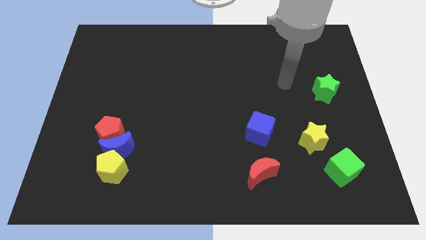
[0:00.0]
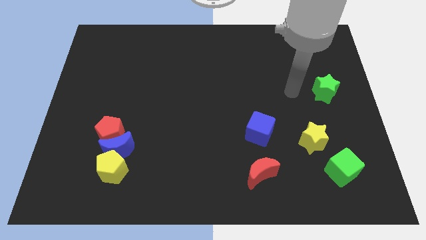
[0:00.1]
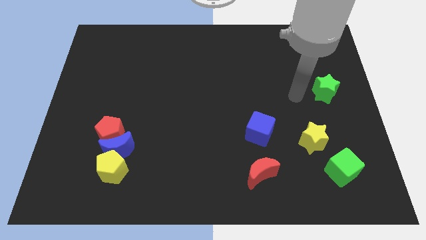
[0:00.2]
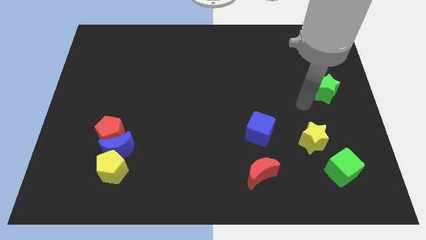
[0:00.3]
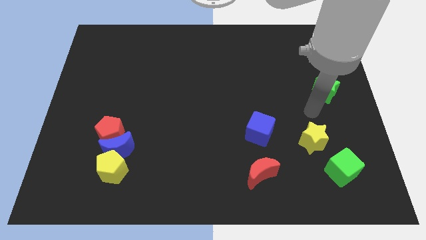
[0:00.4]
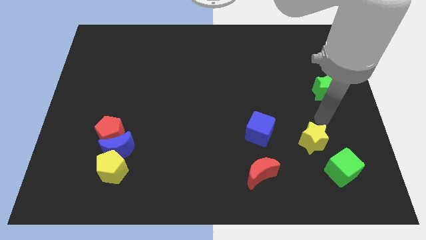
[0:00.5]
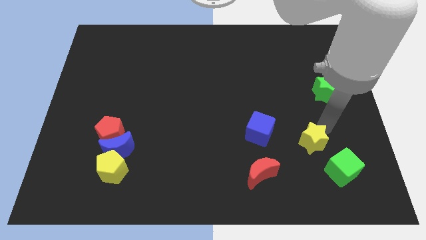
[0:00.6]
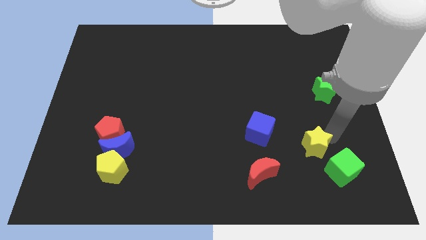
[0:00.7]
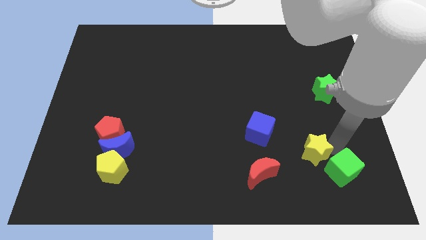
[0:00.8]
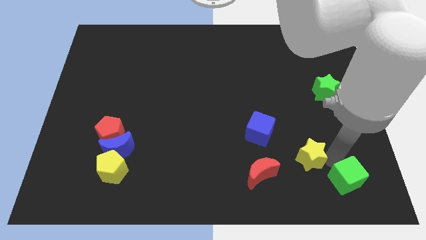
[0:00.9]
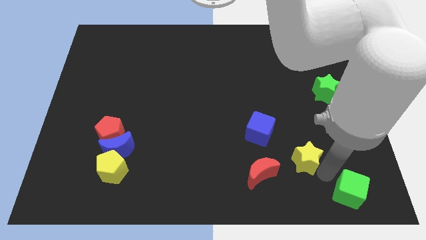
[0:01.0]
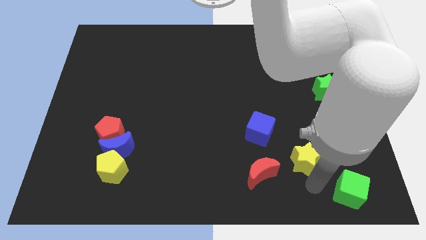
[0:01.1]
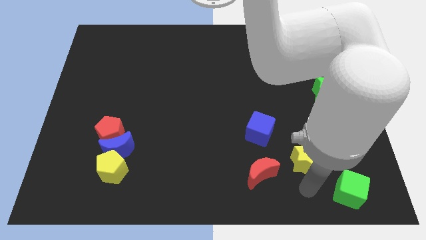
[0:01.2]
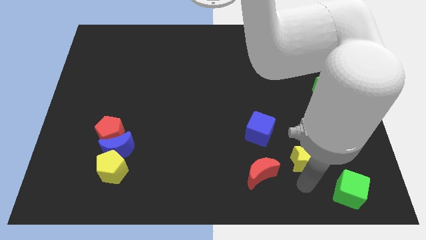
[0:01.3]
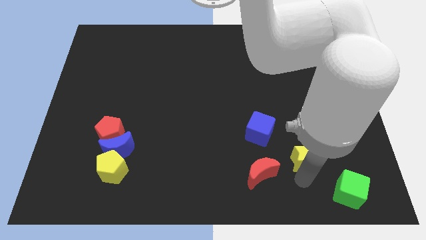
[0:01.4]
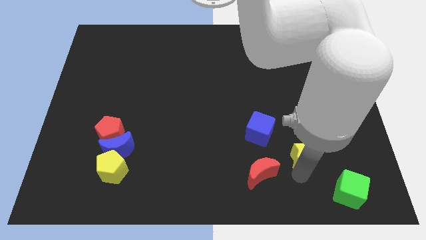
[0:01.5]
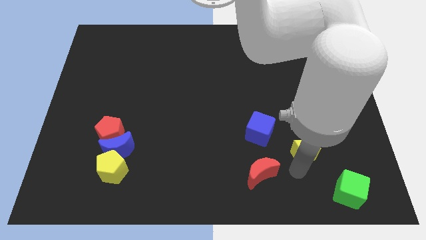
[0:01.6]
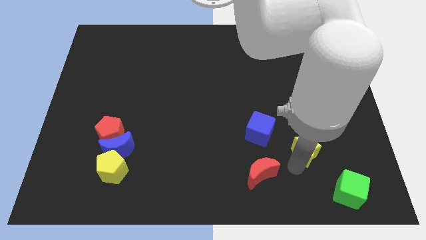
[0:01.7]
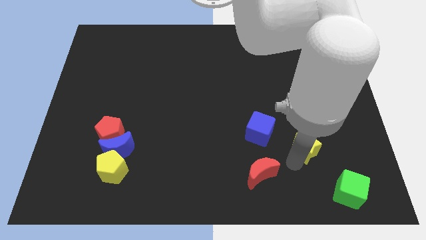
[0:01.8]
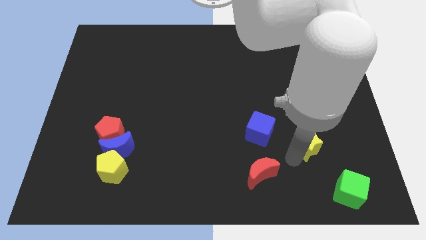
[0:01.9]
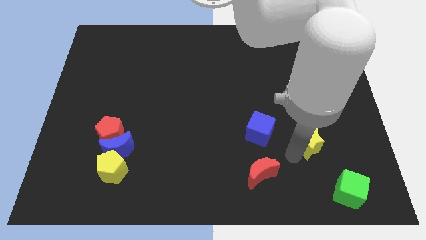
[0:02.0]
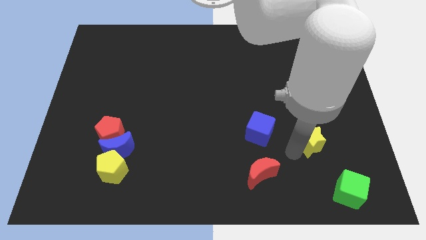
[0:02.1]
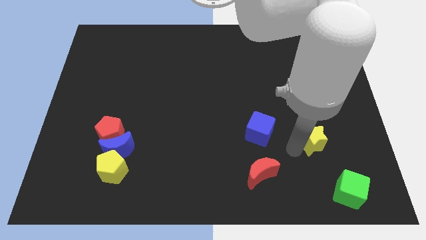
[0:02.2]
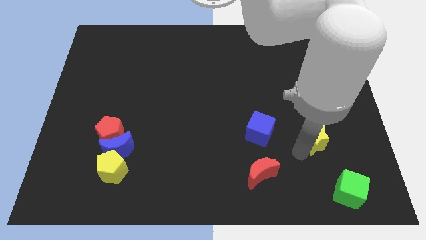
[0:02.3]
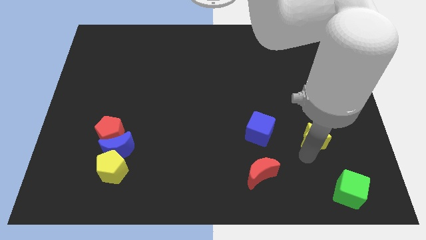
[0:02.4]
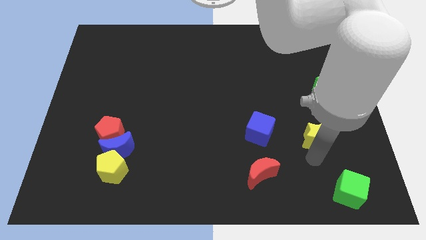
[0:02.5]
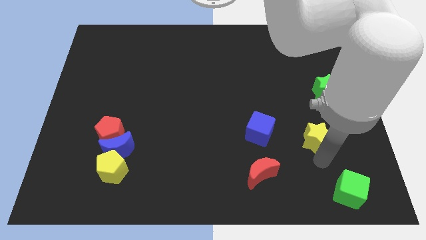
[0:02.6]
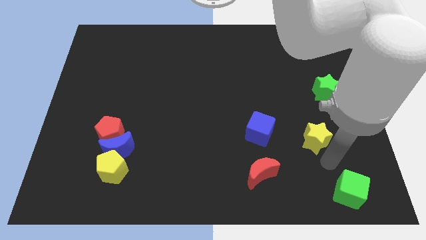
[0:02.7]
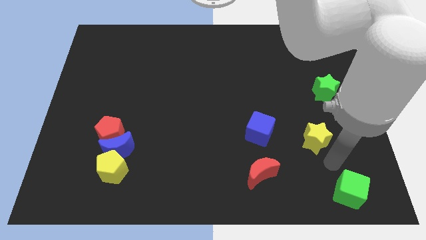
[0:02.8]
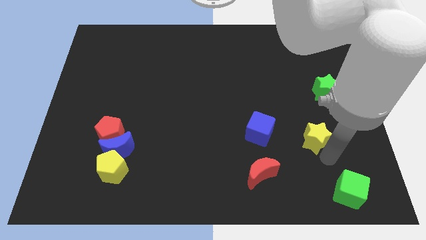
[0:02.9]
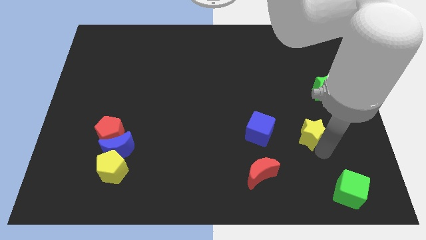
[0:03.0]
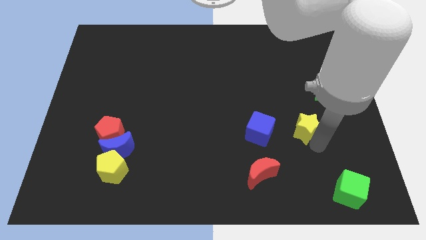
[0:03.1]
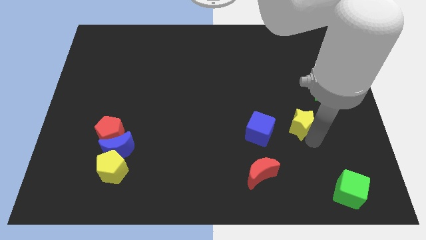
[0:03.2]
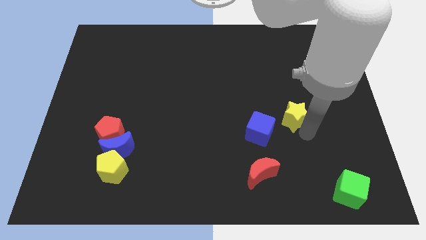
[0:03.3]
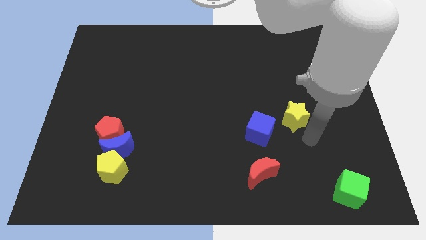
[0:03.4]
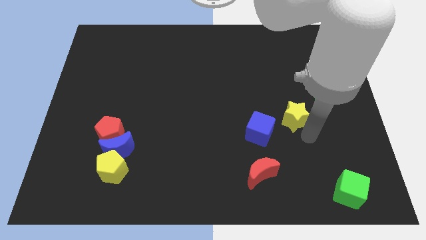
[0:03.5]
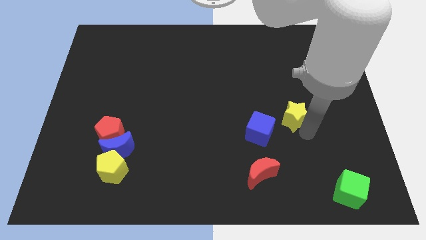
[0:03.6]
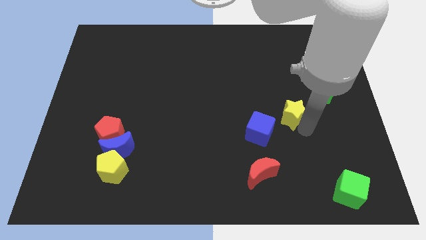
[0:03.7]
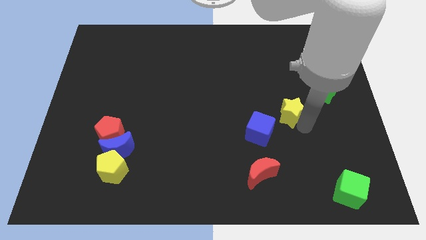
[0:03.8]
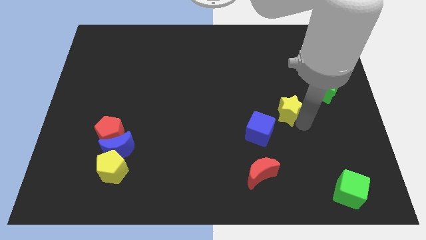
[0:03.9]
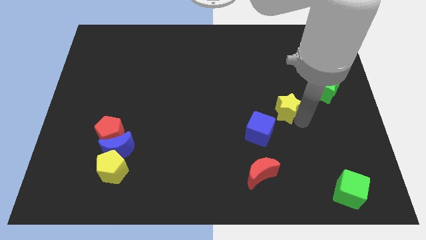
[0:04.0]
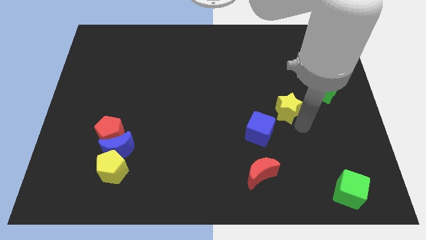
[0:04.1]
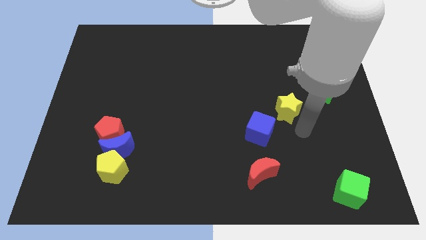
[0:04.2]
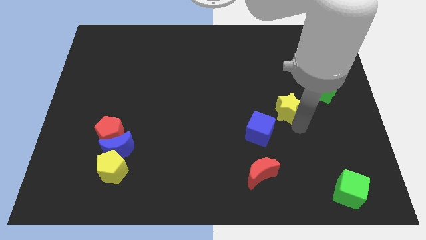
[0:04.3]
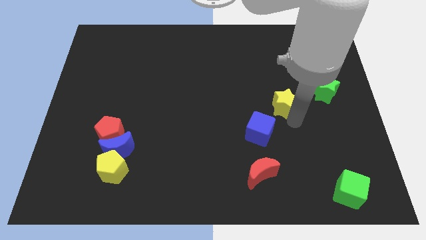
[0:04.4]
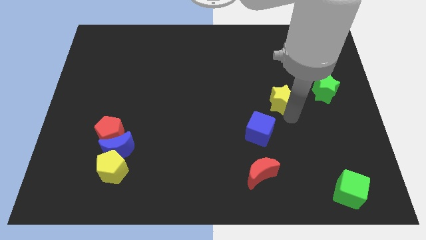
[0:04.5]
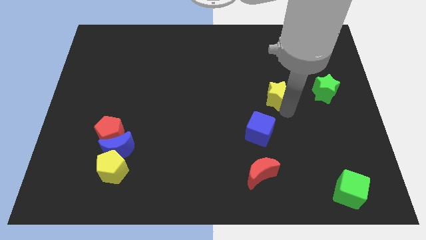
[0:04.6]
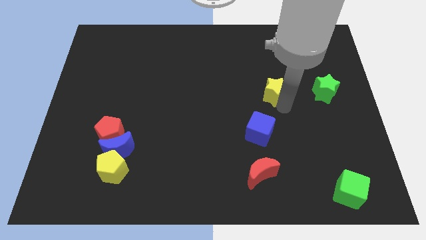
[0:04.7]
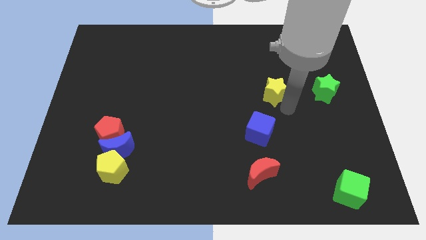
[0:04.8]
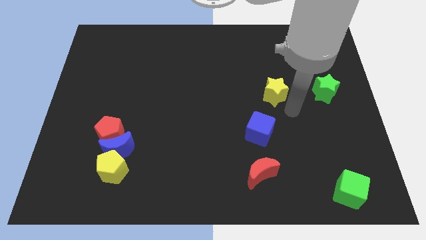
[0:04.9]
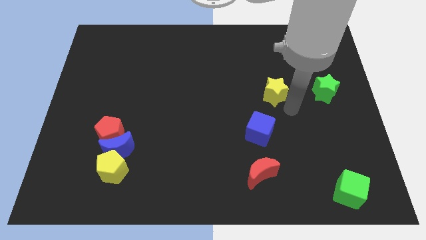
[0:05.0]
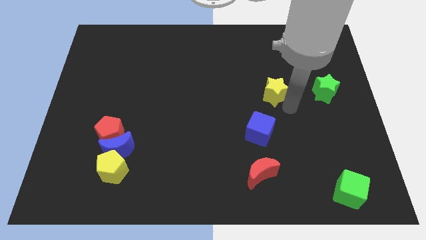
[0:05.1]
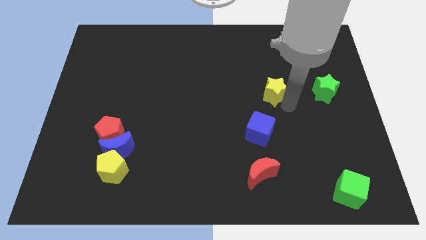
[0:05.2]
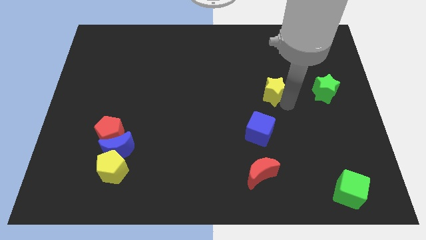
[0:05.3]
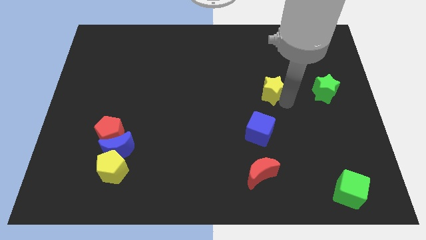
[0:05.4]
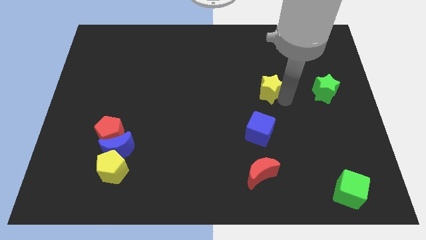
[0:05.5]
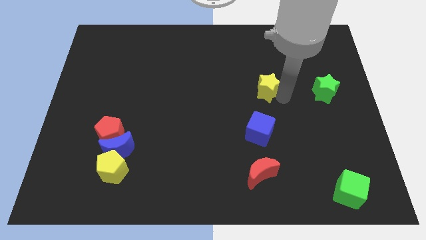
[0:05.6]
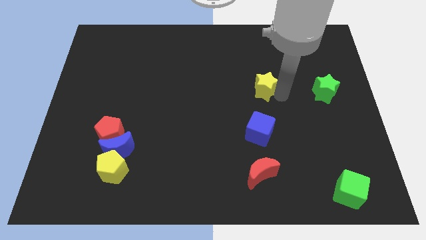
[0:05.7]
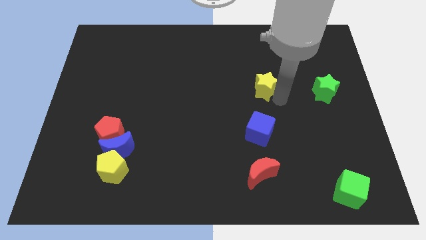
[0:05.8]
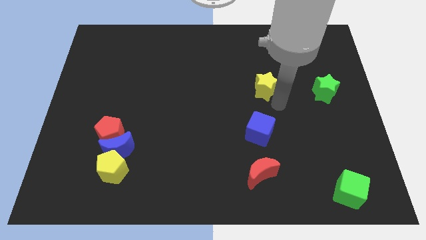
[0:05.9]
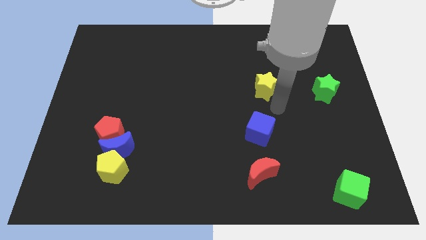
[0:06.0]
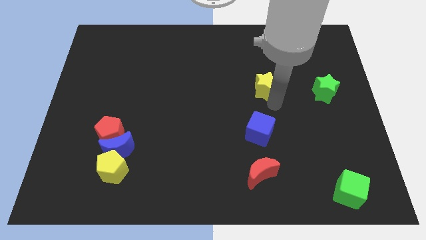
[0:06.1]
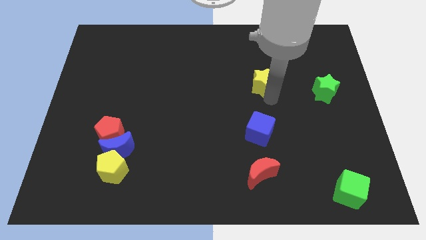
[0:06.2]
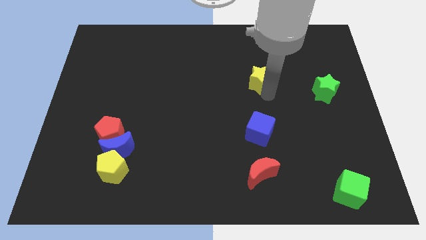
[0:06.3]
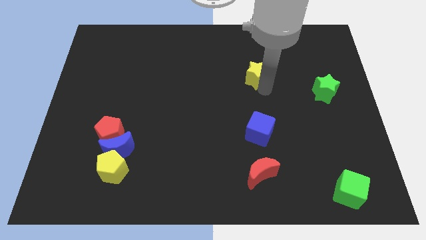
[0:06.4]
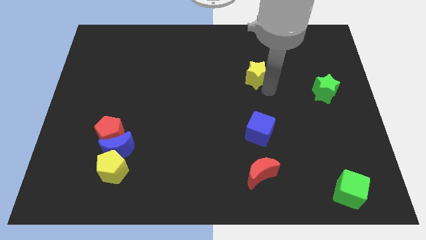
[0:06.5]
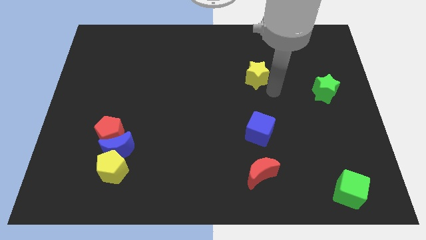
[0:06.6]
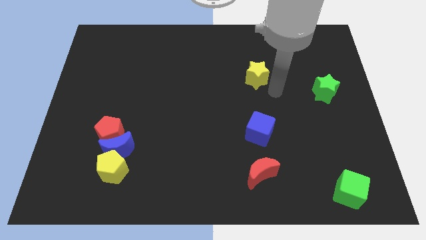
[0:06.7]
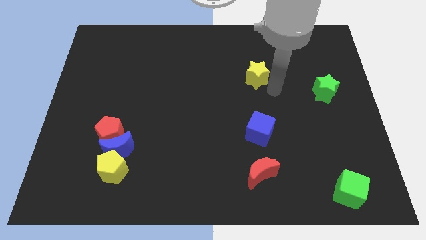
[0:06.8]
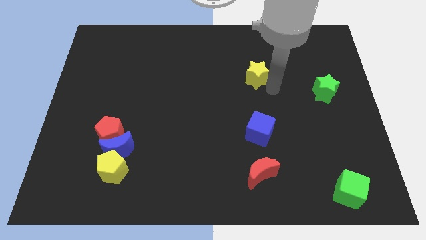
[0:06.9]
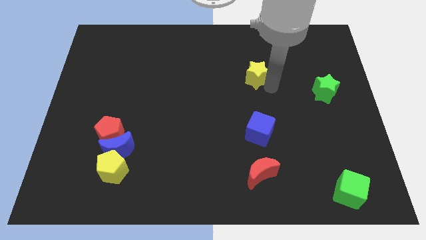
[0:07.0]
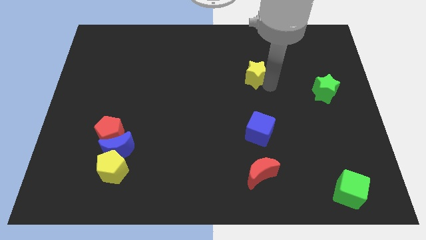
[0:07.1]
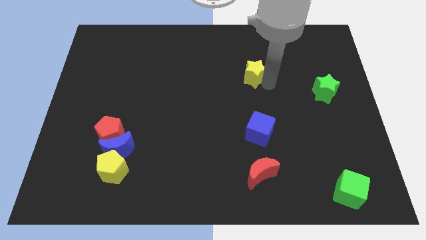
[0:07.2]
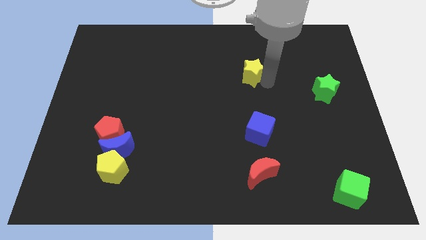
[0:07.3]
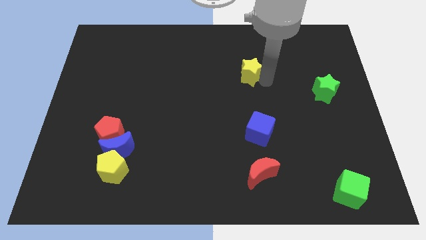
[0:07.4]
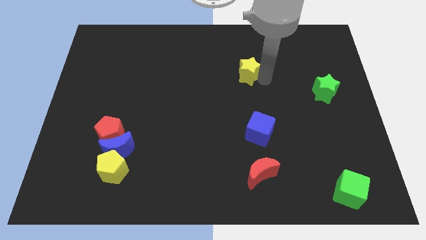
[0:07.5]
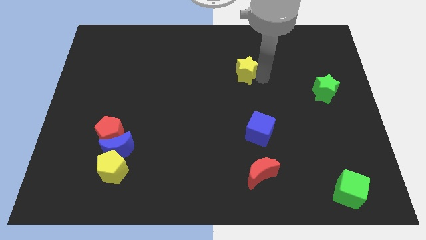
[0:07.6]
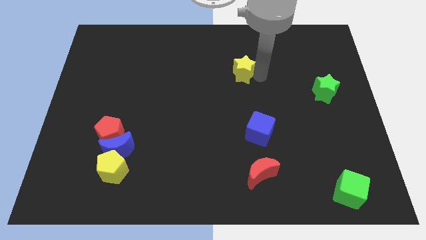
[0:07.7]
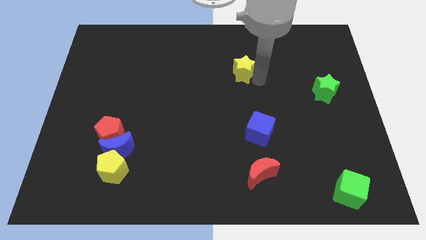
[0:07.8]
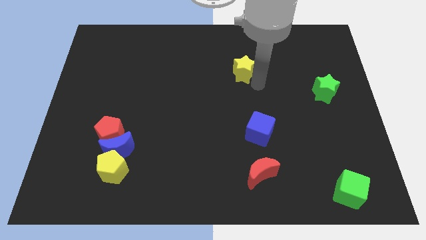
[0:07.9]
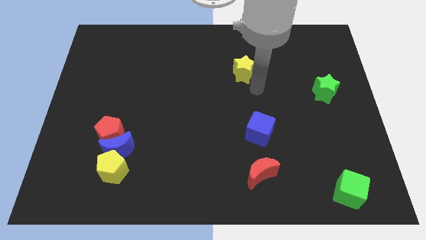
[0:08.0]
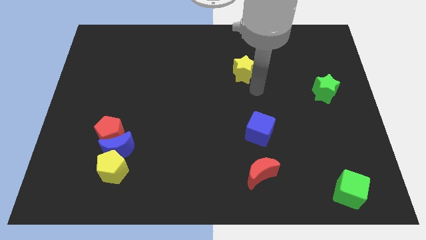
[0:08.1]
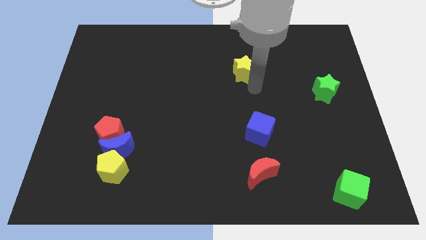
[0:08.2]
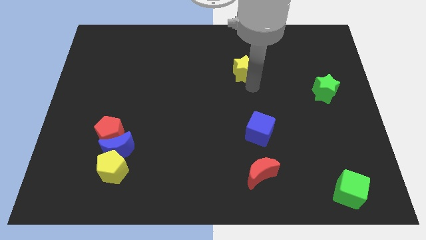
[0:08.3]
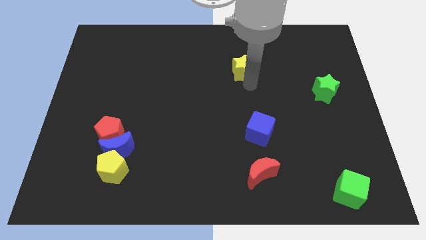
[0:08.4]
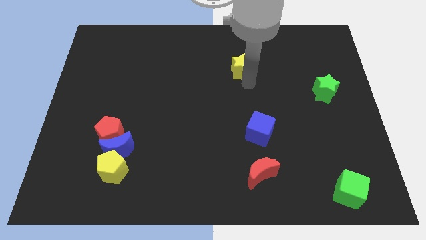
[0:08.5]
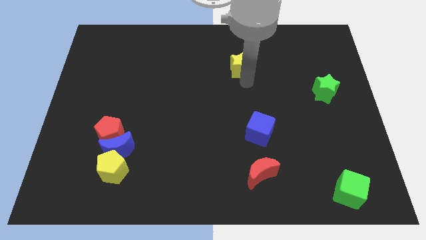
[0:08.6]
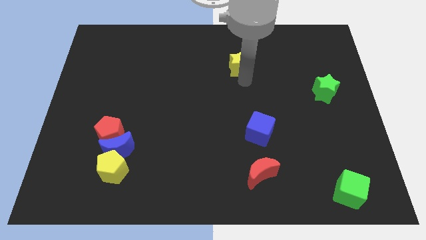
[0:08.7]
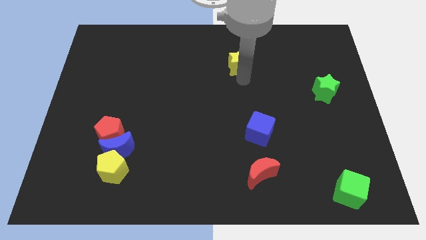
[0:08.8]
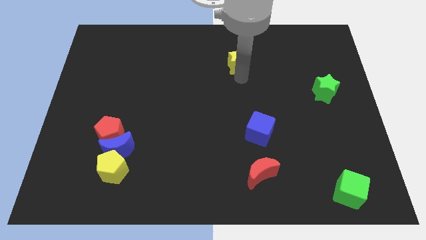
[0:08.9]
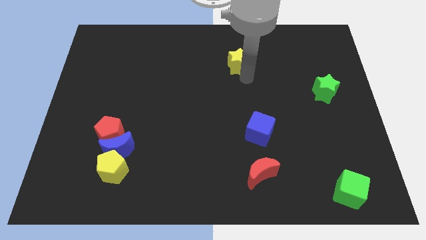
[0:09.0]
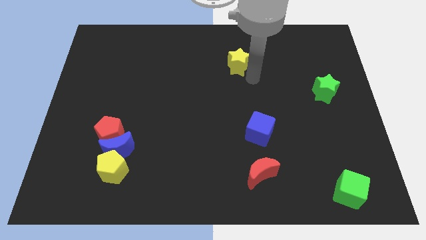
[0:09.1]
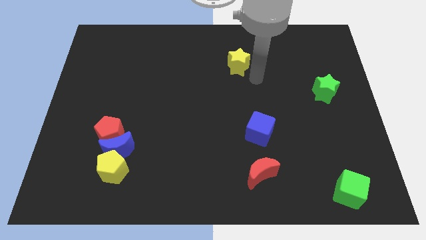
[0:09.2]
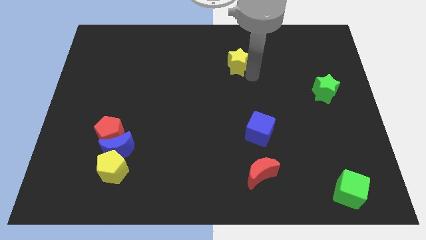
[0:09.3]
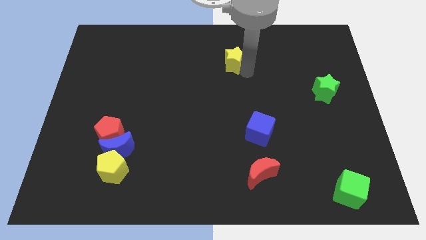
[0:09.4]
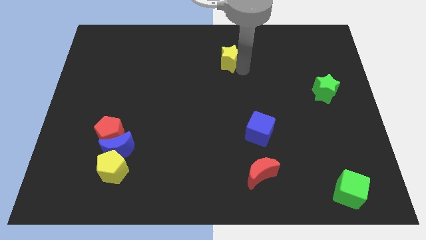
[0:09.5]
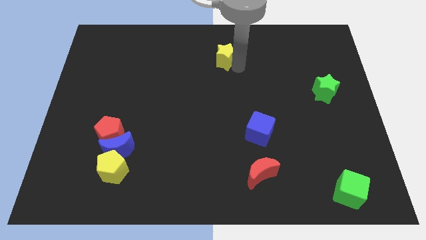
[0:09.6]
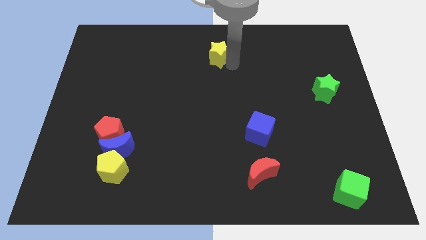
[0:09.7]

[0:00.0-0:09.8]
push the yellow star to the top side
